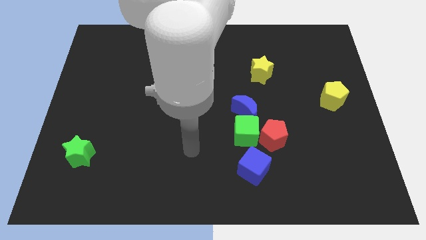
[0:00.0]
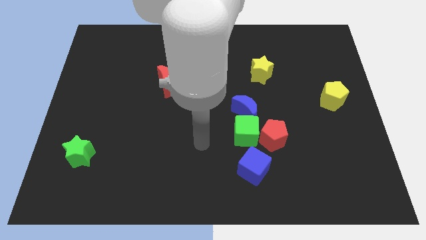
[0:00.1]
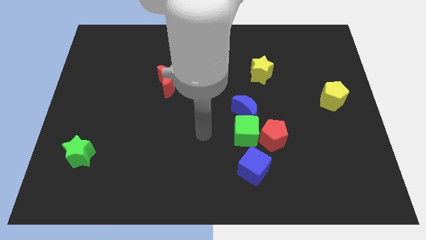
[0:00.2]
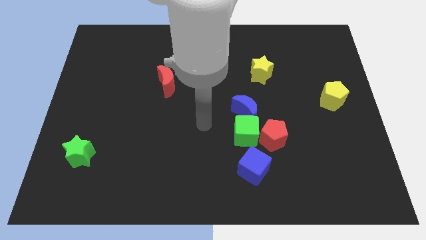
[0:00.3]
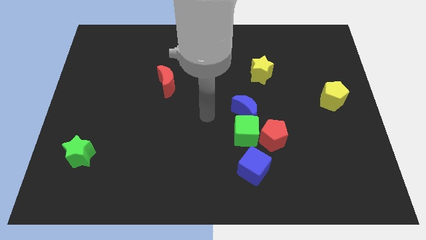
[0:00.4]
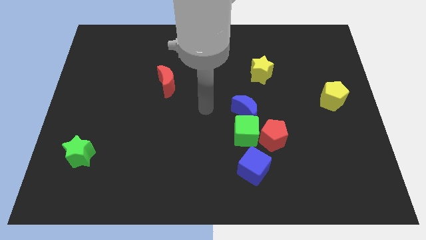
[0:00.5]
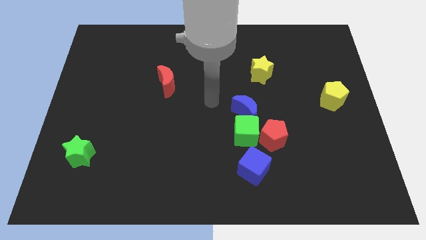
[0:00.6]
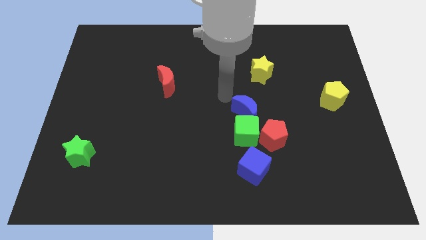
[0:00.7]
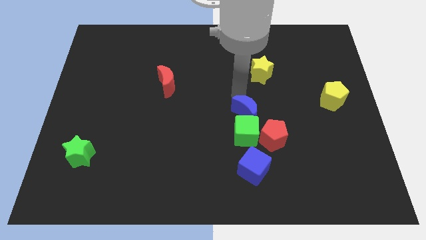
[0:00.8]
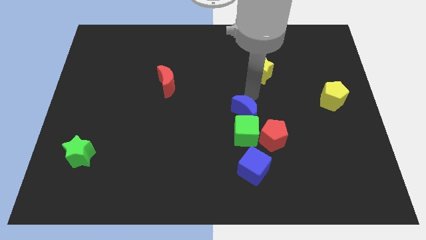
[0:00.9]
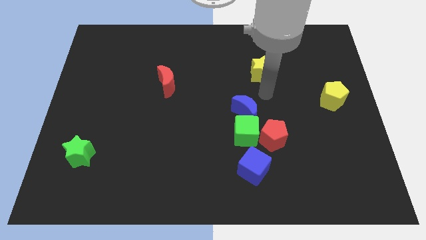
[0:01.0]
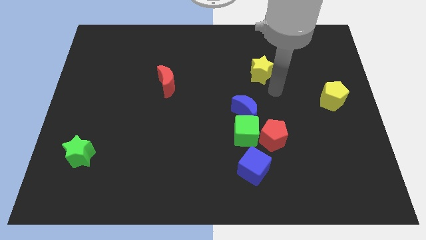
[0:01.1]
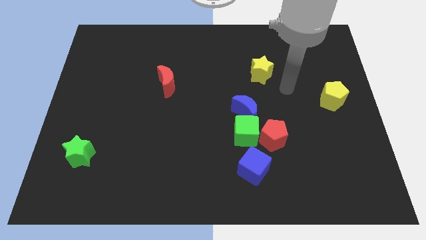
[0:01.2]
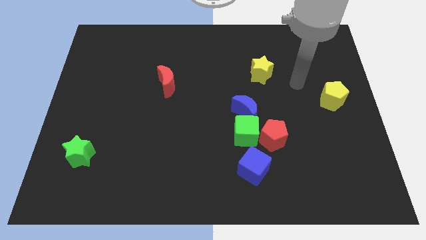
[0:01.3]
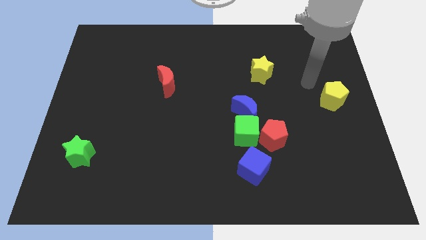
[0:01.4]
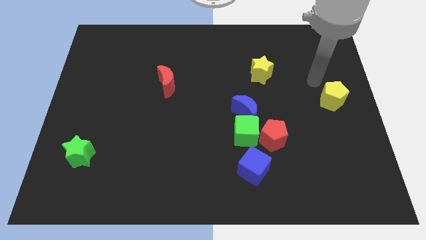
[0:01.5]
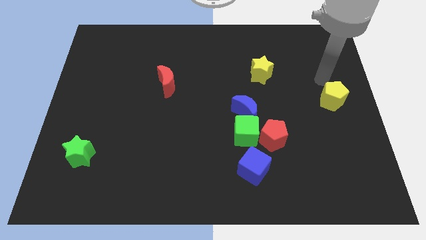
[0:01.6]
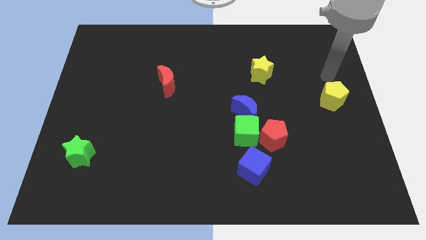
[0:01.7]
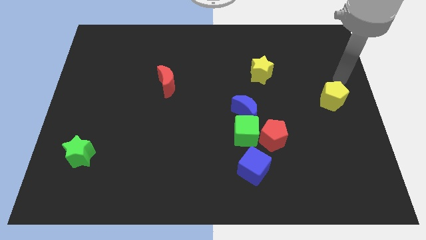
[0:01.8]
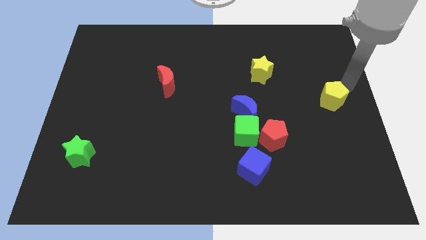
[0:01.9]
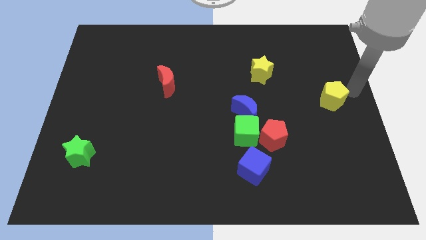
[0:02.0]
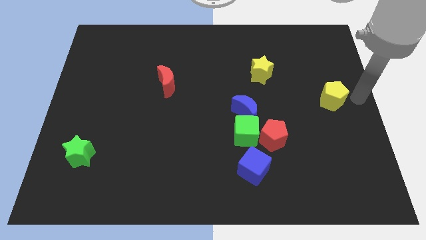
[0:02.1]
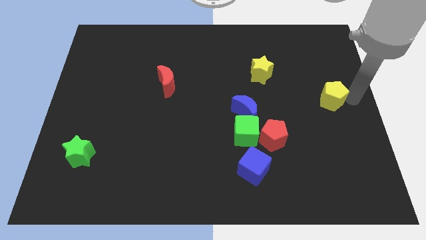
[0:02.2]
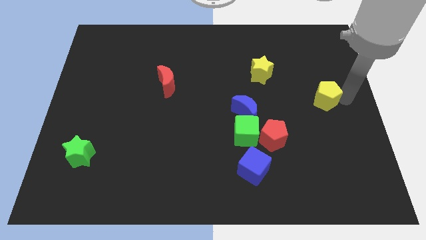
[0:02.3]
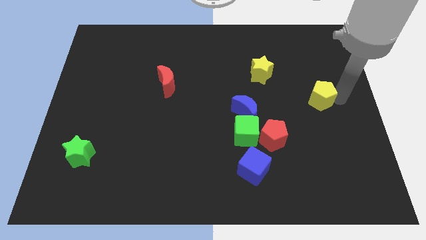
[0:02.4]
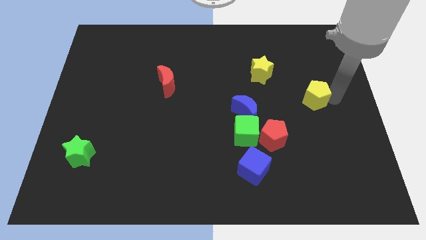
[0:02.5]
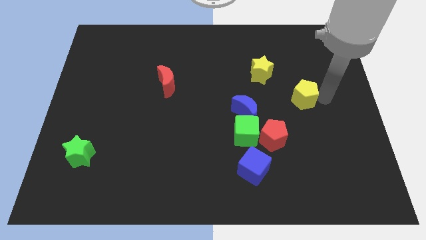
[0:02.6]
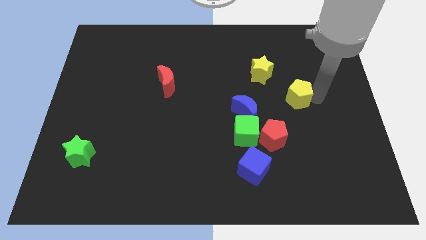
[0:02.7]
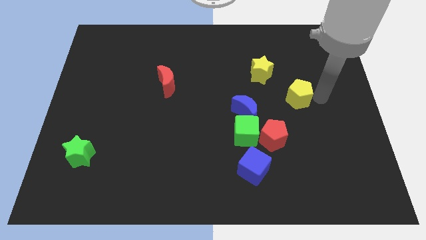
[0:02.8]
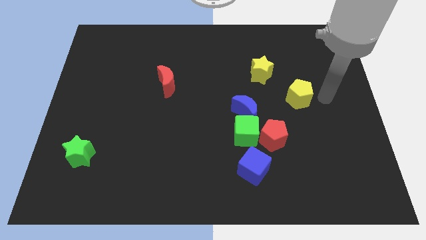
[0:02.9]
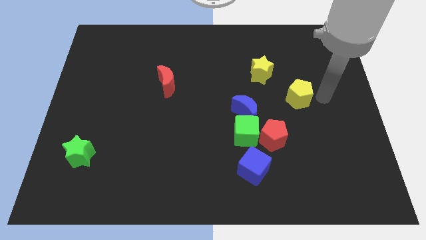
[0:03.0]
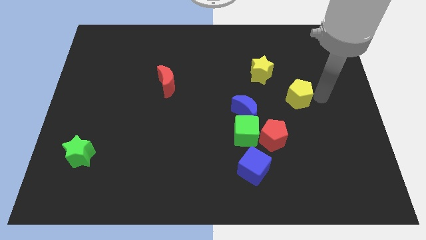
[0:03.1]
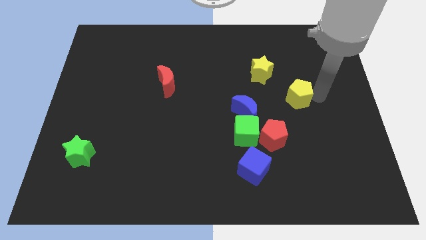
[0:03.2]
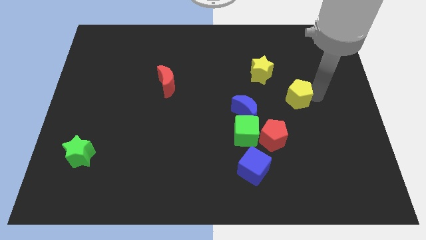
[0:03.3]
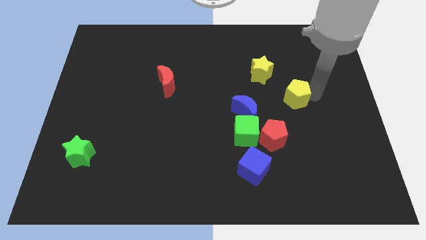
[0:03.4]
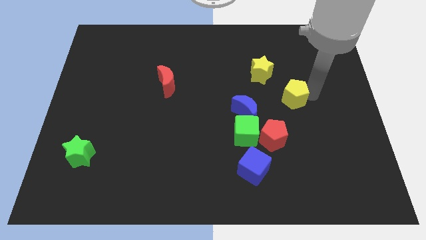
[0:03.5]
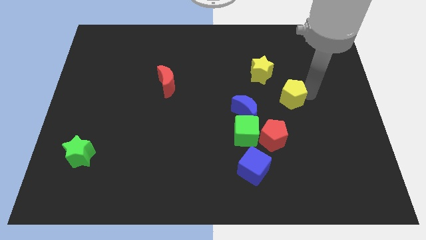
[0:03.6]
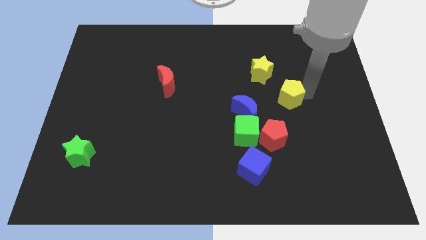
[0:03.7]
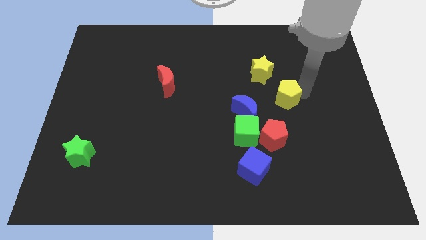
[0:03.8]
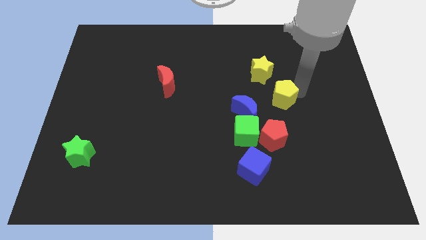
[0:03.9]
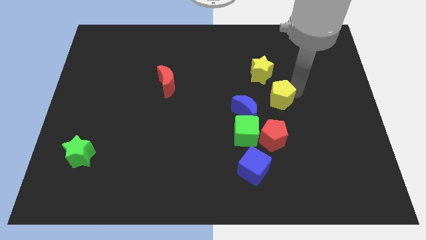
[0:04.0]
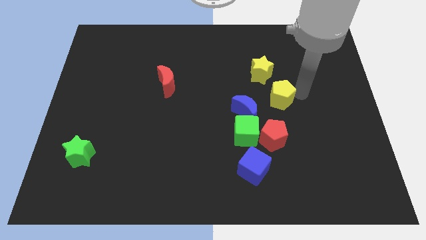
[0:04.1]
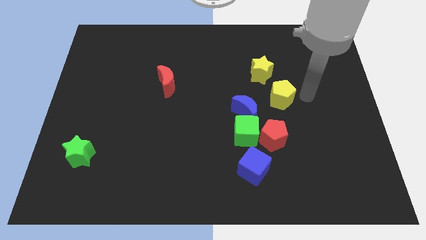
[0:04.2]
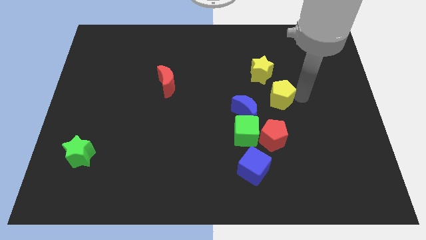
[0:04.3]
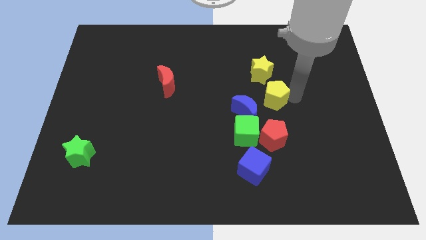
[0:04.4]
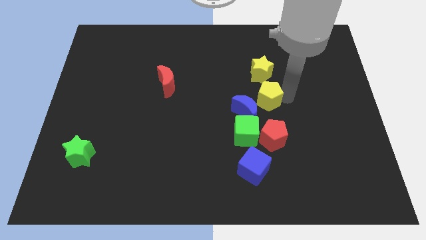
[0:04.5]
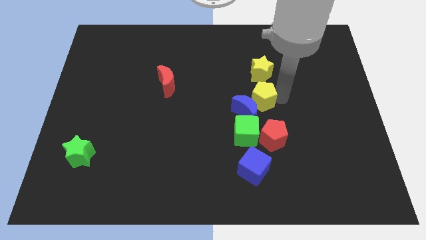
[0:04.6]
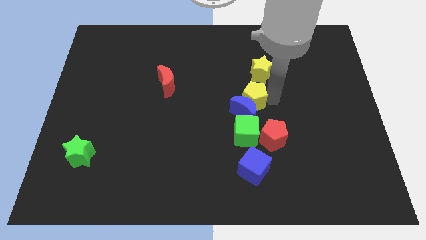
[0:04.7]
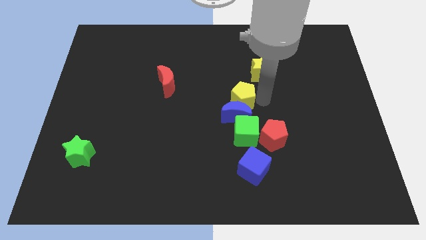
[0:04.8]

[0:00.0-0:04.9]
push the yellow pentagon to the top left of the blue moon

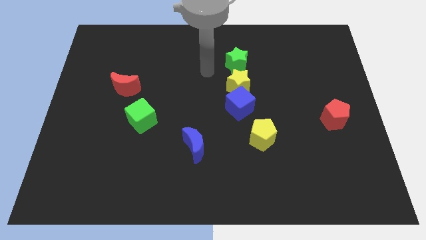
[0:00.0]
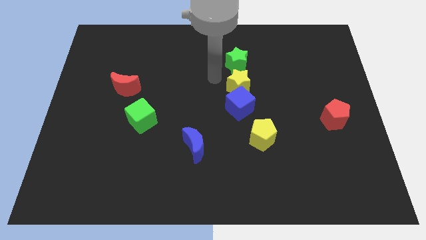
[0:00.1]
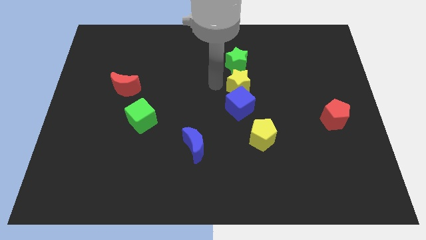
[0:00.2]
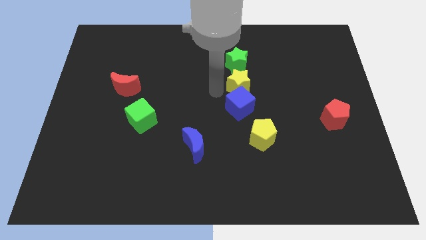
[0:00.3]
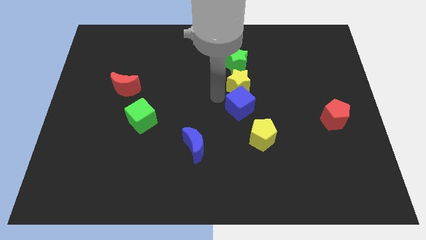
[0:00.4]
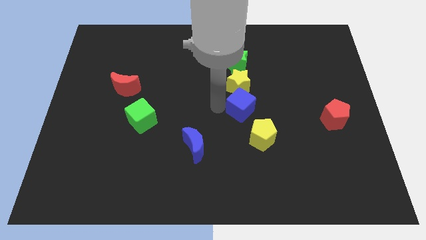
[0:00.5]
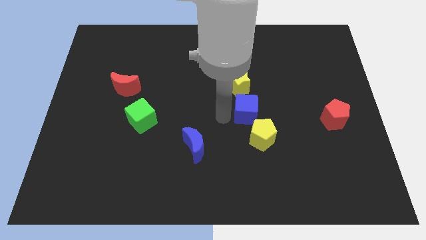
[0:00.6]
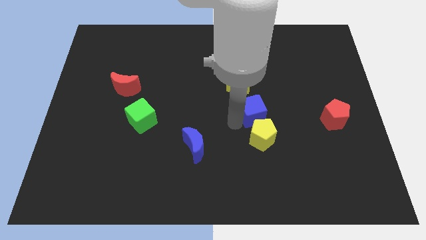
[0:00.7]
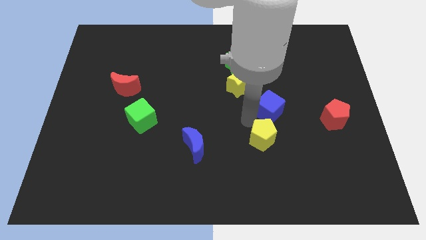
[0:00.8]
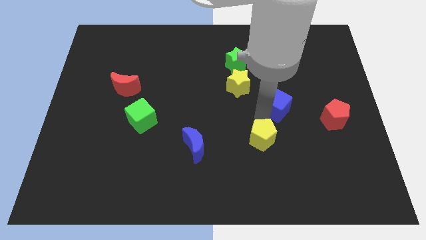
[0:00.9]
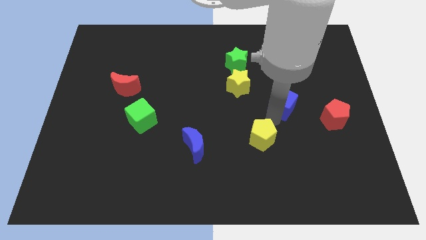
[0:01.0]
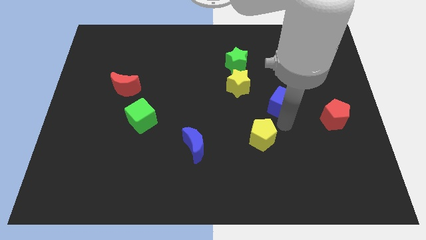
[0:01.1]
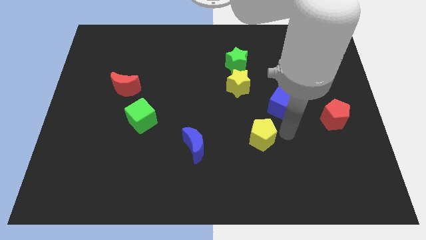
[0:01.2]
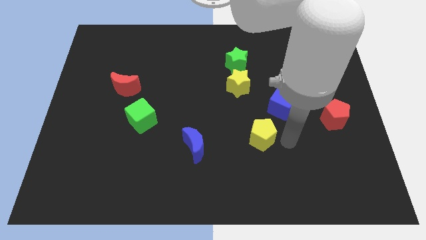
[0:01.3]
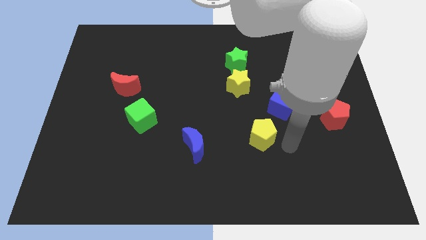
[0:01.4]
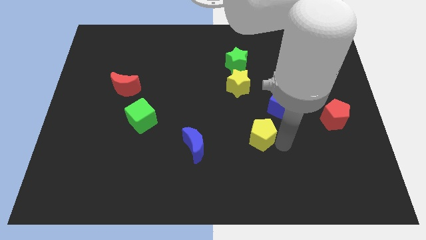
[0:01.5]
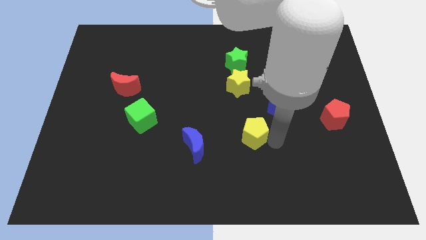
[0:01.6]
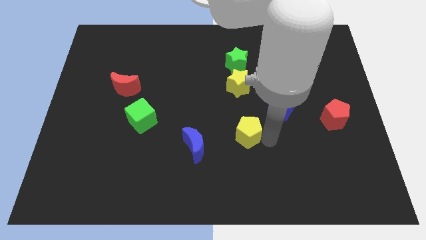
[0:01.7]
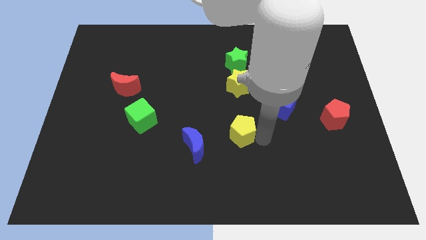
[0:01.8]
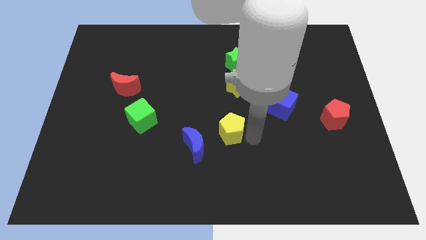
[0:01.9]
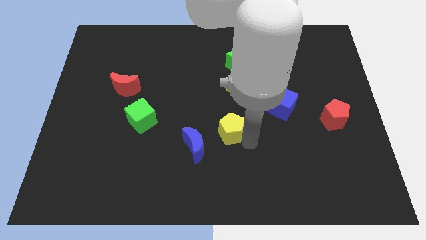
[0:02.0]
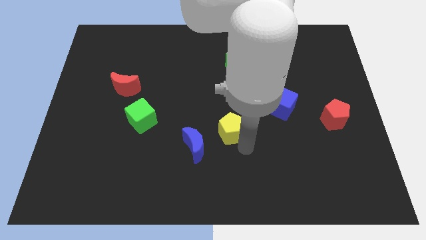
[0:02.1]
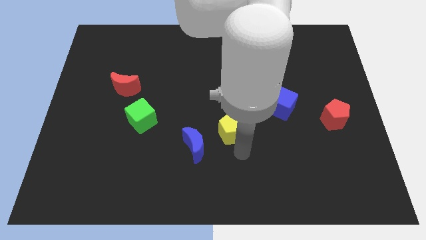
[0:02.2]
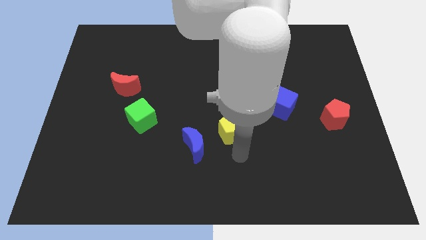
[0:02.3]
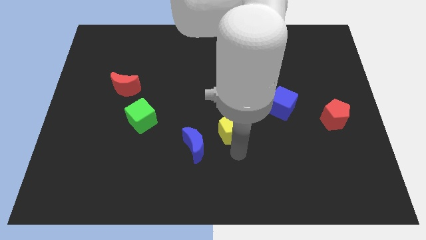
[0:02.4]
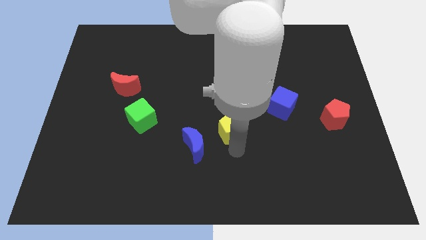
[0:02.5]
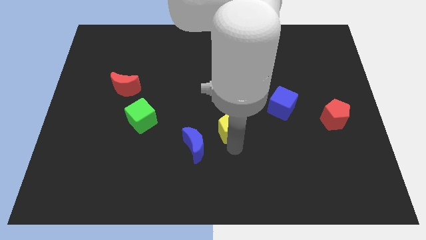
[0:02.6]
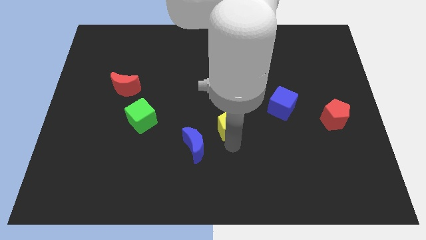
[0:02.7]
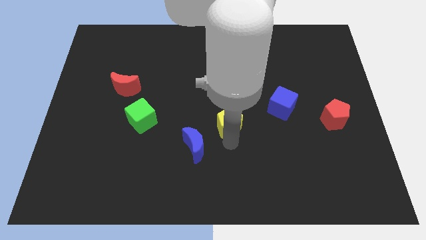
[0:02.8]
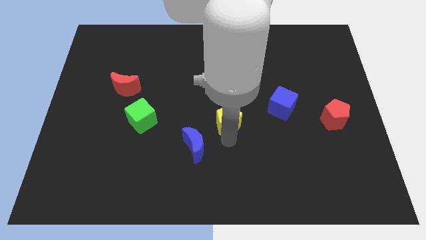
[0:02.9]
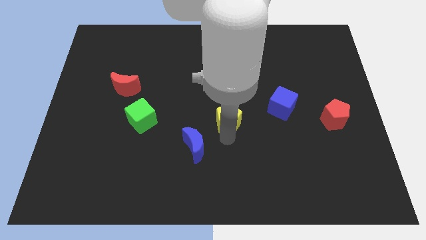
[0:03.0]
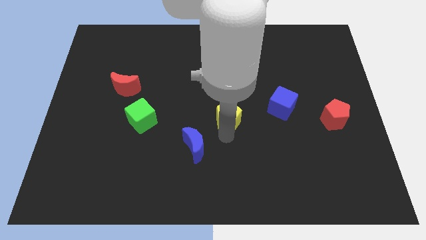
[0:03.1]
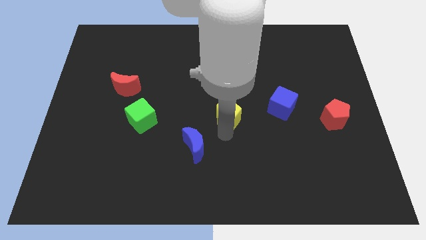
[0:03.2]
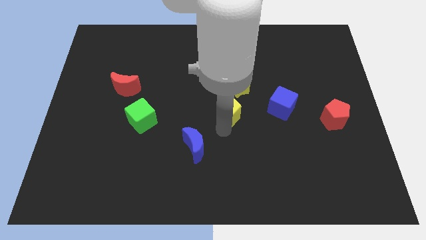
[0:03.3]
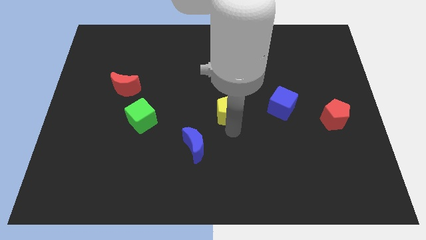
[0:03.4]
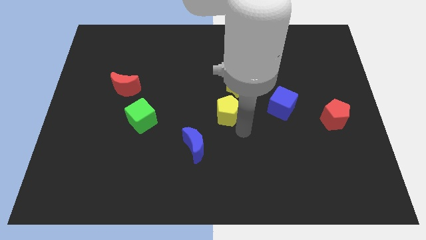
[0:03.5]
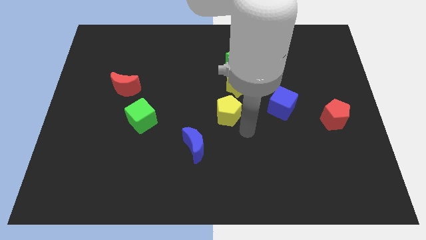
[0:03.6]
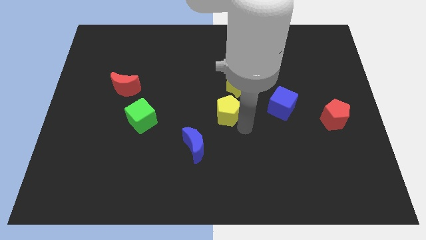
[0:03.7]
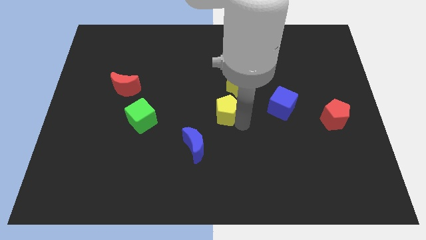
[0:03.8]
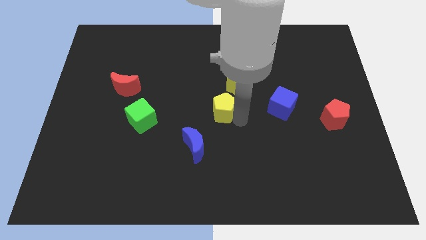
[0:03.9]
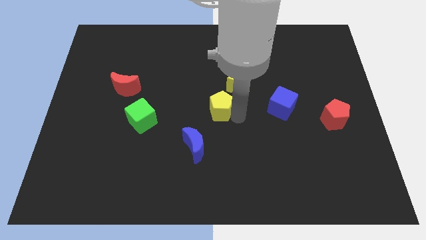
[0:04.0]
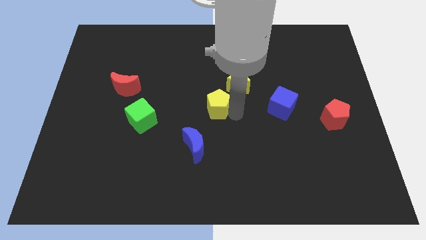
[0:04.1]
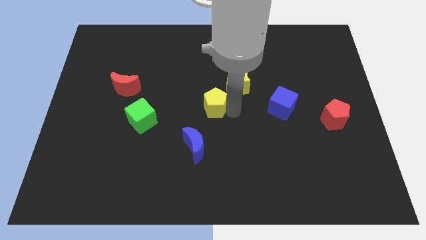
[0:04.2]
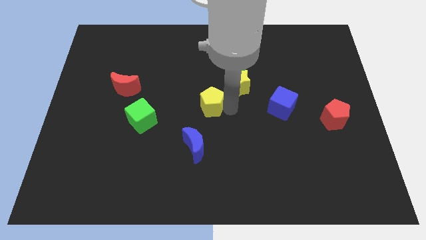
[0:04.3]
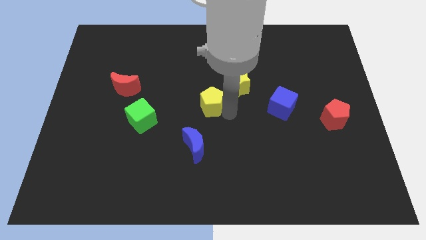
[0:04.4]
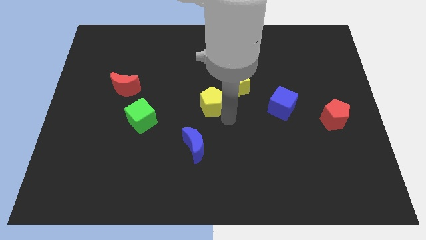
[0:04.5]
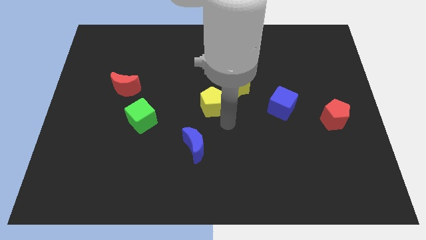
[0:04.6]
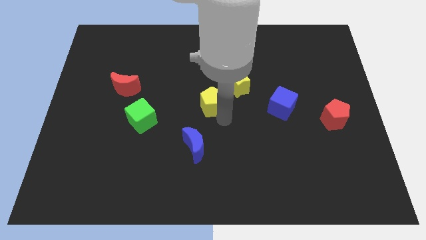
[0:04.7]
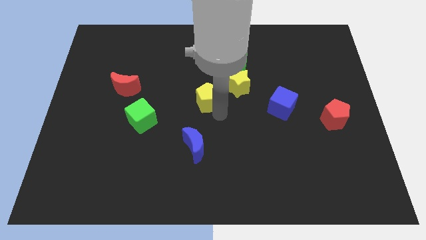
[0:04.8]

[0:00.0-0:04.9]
put the yellow pentagon to the left of the yellow star
